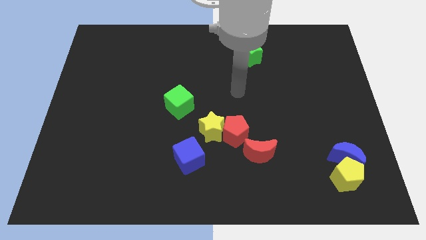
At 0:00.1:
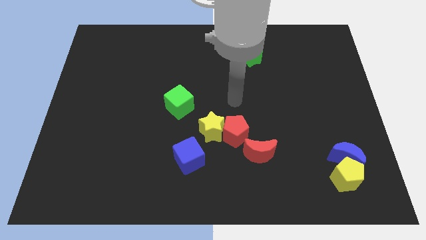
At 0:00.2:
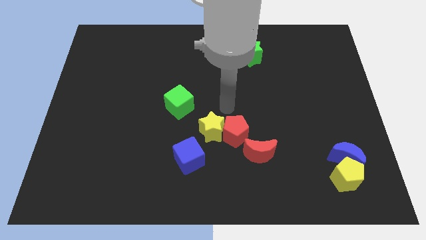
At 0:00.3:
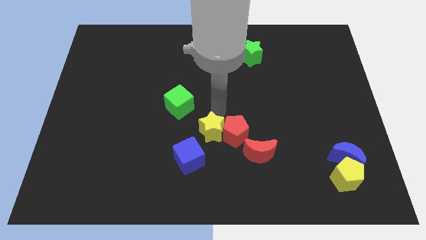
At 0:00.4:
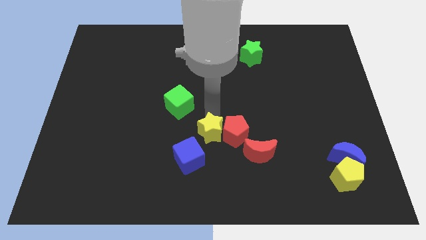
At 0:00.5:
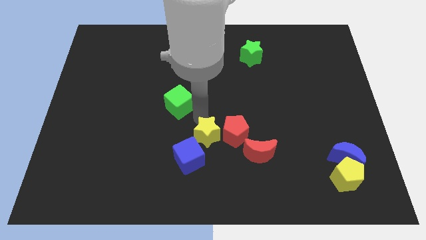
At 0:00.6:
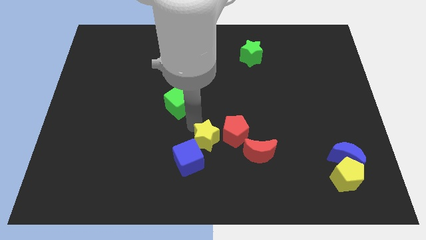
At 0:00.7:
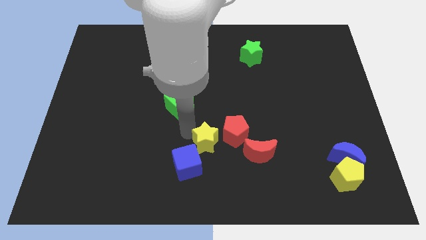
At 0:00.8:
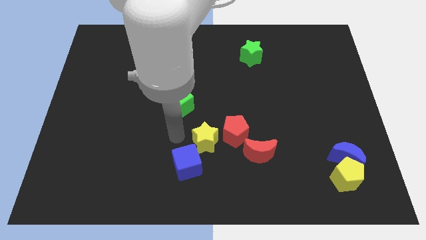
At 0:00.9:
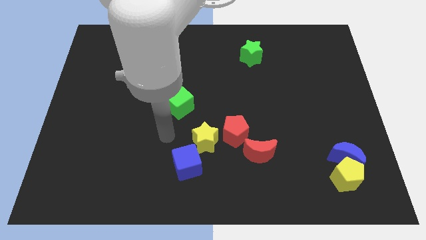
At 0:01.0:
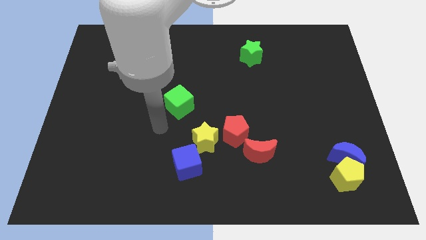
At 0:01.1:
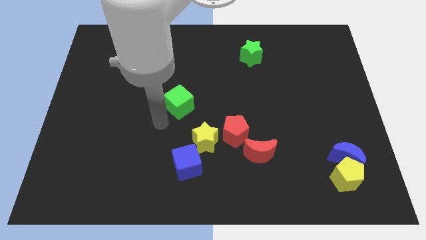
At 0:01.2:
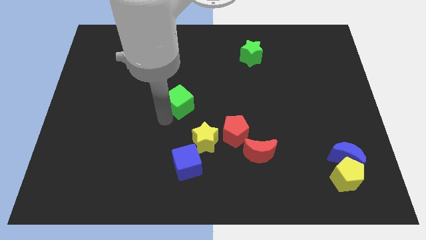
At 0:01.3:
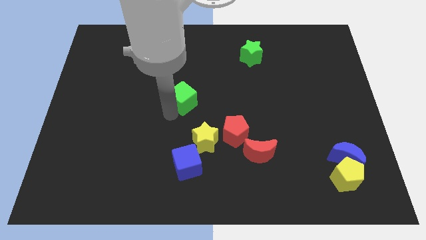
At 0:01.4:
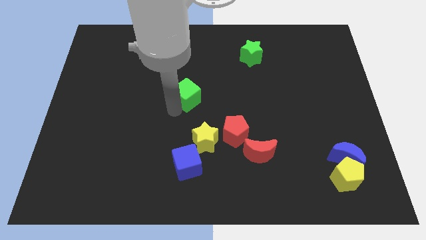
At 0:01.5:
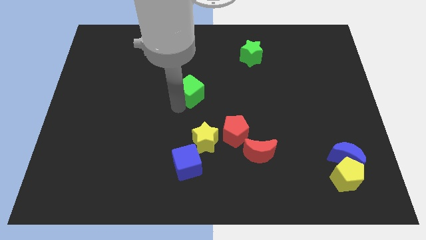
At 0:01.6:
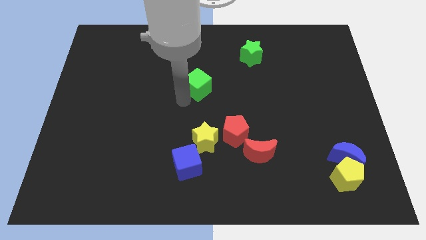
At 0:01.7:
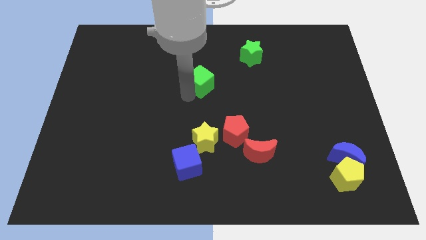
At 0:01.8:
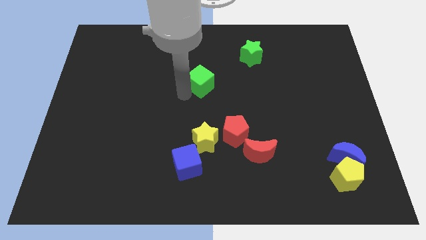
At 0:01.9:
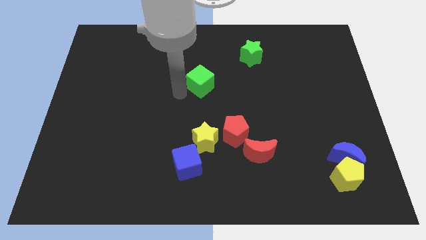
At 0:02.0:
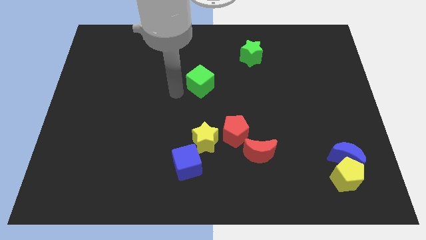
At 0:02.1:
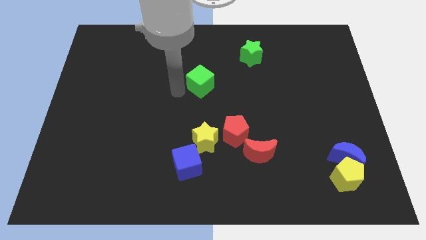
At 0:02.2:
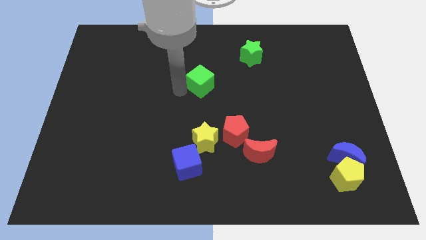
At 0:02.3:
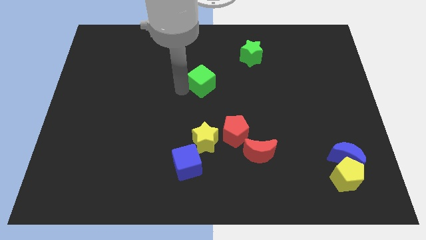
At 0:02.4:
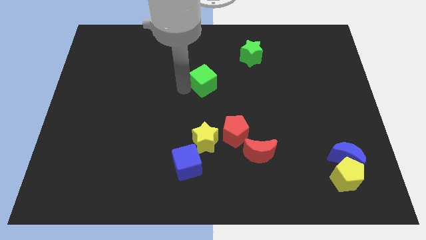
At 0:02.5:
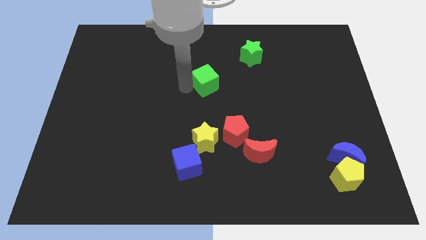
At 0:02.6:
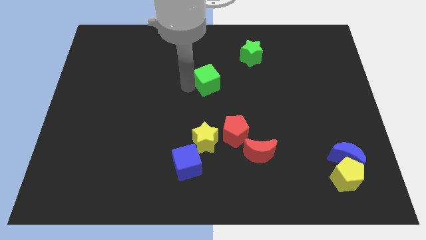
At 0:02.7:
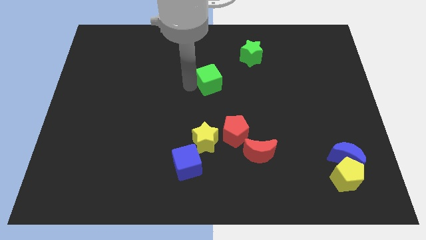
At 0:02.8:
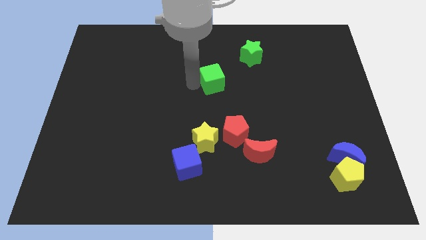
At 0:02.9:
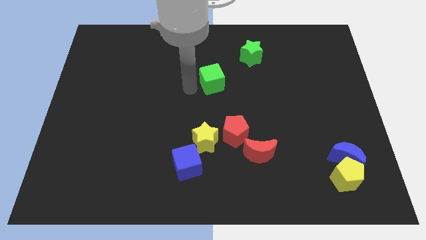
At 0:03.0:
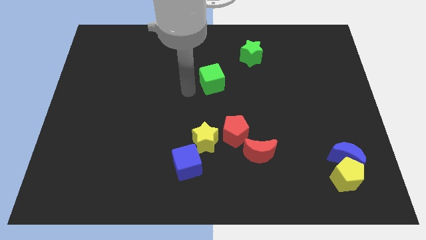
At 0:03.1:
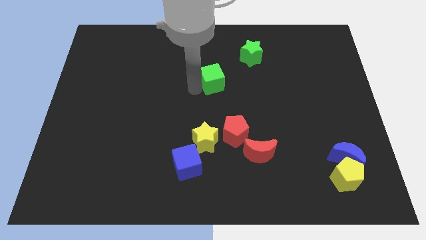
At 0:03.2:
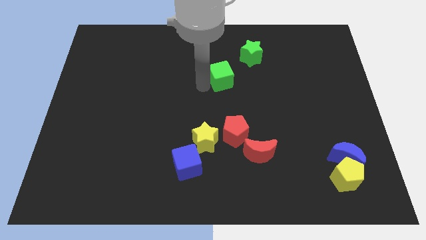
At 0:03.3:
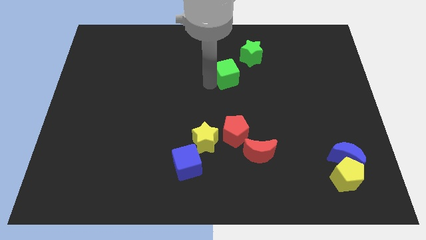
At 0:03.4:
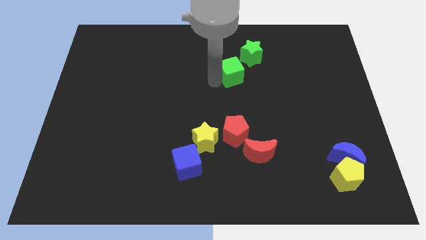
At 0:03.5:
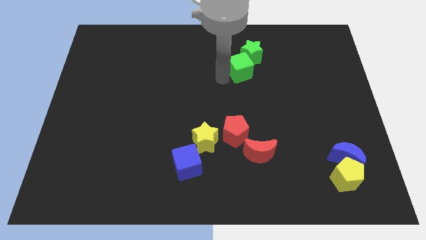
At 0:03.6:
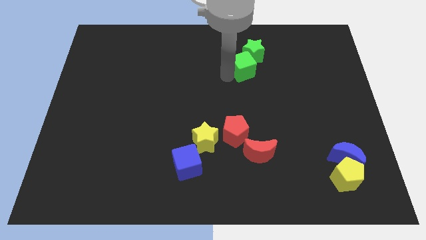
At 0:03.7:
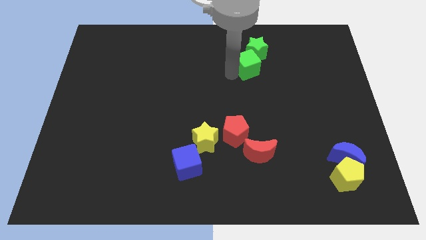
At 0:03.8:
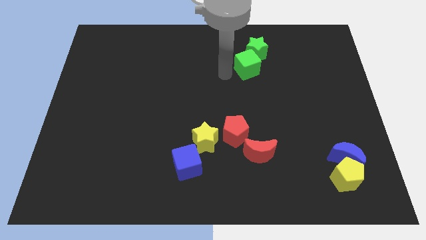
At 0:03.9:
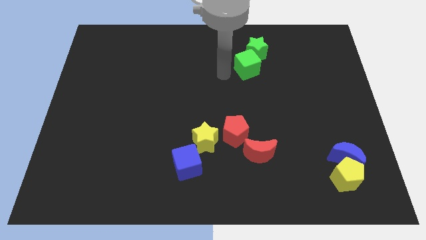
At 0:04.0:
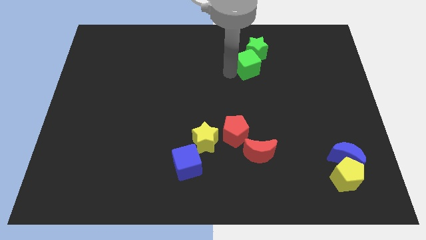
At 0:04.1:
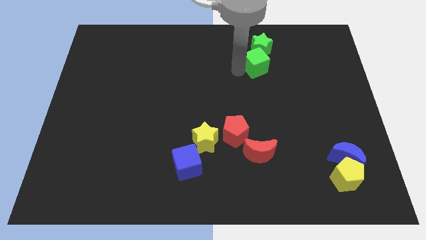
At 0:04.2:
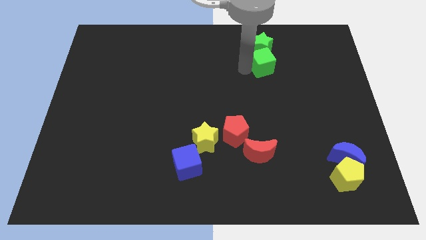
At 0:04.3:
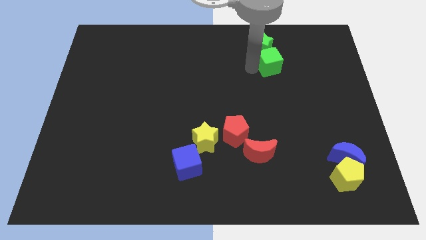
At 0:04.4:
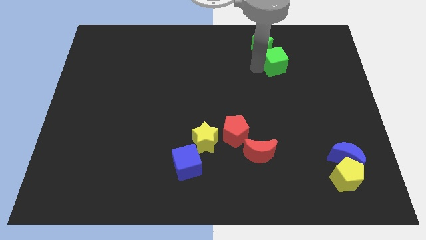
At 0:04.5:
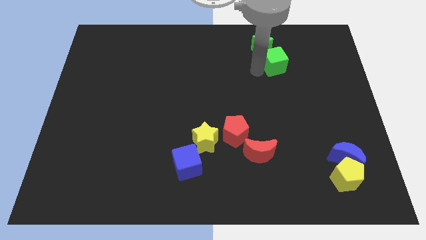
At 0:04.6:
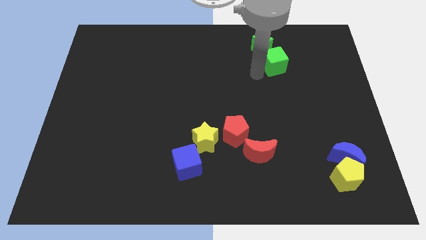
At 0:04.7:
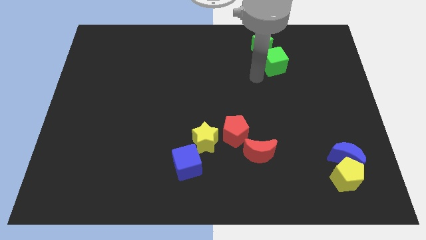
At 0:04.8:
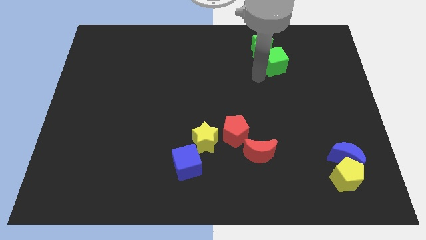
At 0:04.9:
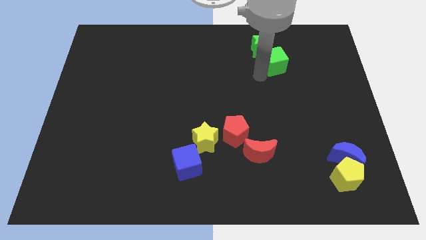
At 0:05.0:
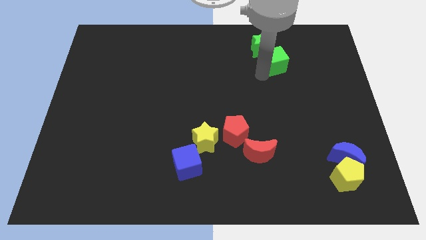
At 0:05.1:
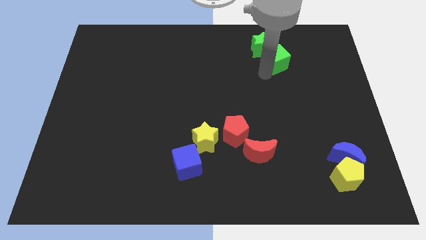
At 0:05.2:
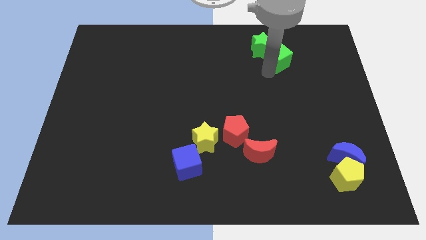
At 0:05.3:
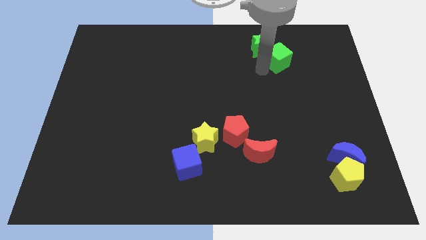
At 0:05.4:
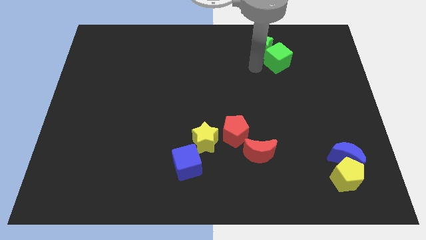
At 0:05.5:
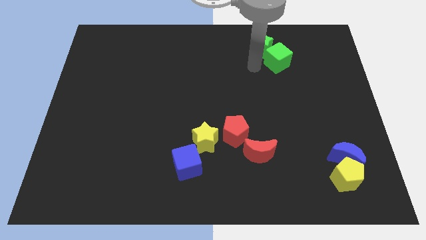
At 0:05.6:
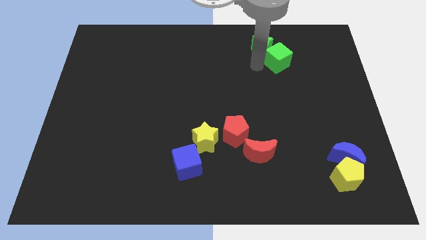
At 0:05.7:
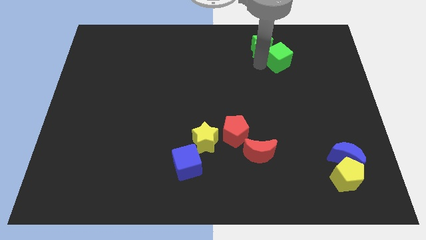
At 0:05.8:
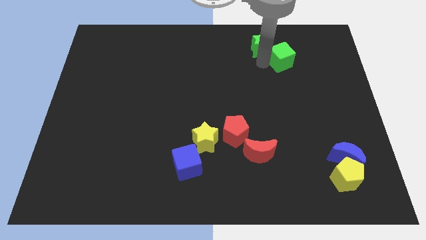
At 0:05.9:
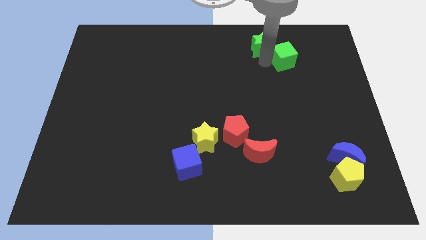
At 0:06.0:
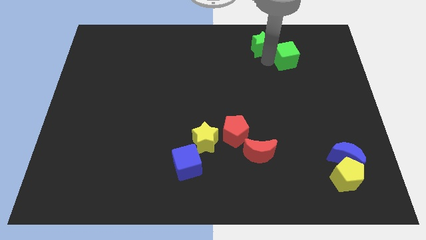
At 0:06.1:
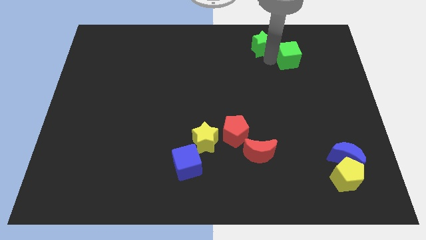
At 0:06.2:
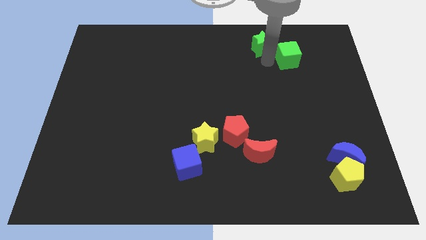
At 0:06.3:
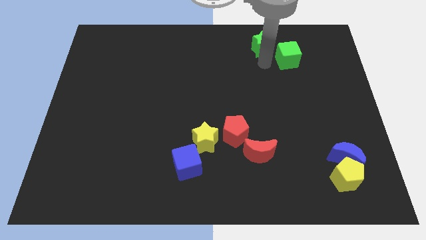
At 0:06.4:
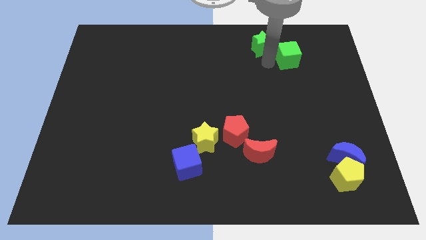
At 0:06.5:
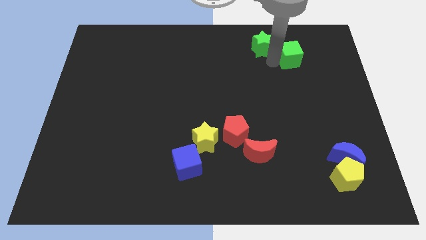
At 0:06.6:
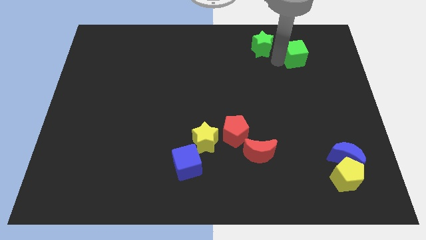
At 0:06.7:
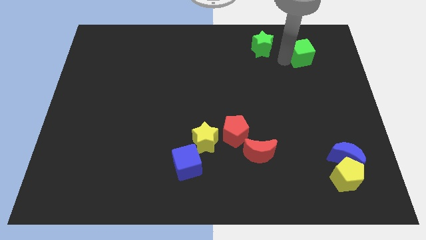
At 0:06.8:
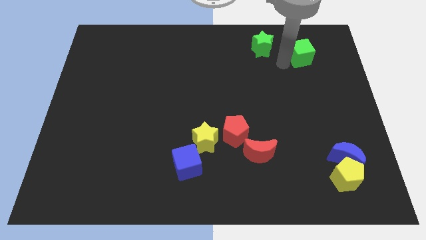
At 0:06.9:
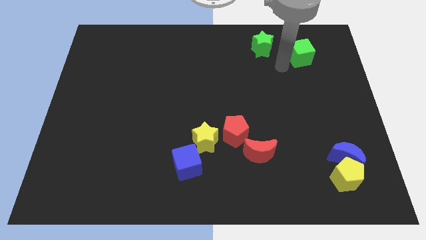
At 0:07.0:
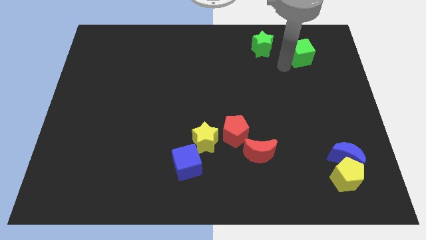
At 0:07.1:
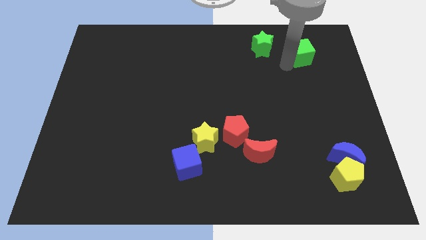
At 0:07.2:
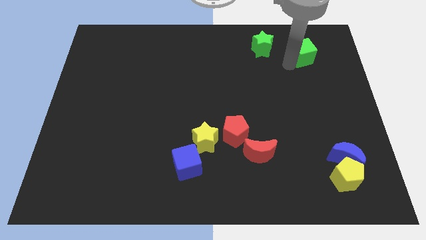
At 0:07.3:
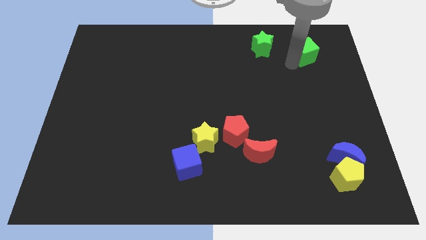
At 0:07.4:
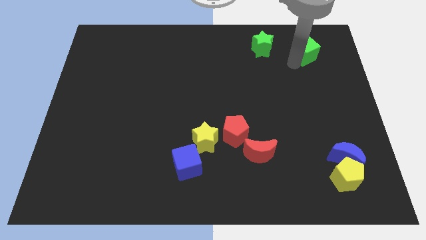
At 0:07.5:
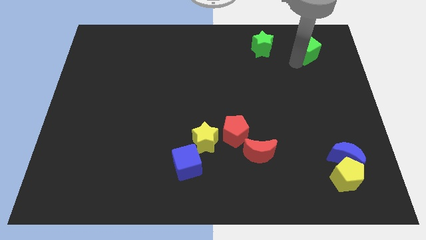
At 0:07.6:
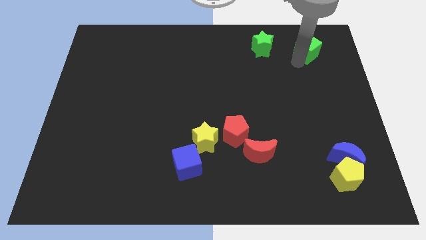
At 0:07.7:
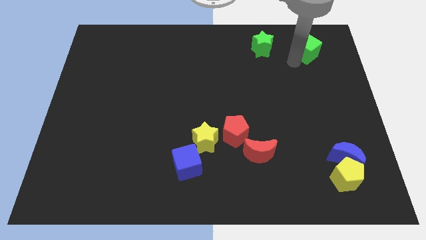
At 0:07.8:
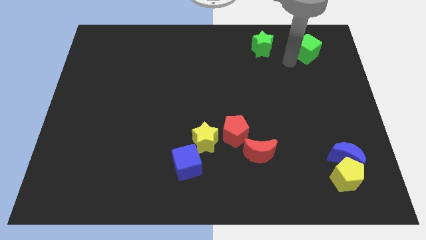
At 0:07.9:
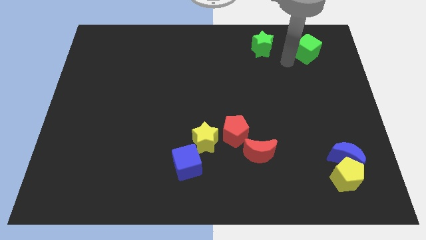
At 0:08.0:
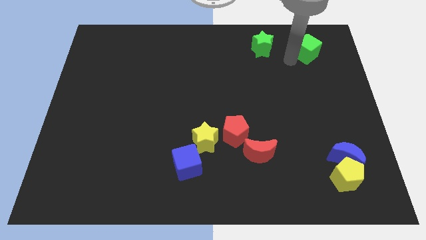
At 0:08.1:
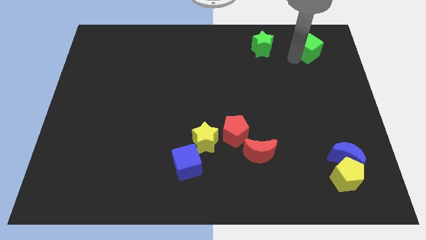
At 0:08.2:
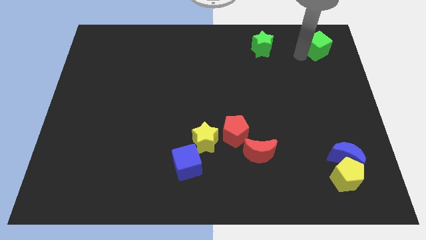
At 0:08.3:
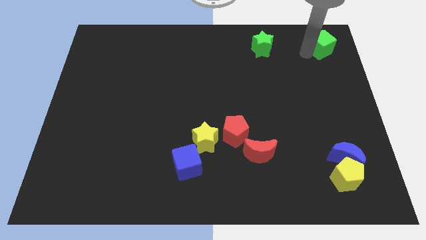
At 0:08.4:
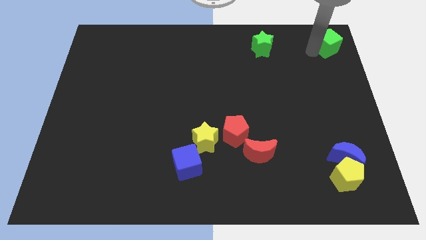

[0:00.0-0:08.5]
slide the green cube to the top right
